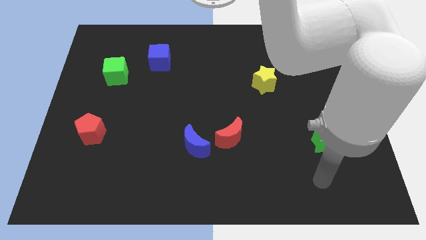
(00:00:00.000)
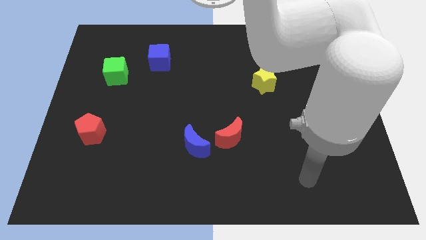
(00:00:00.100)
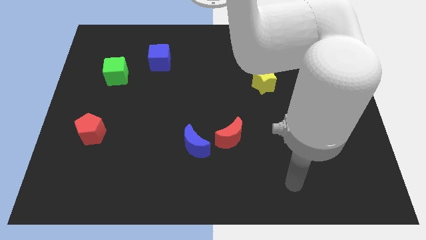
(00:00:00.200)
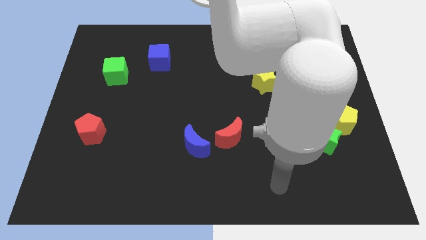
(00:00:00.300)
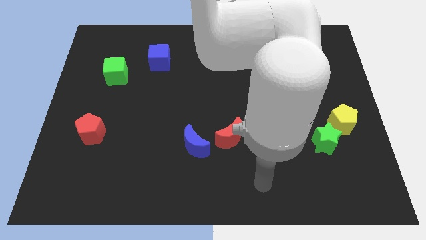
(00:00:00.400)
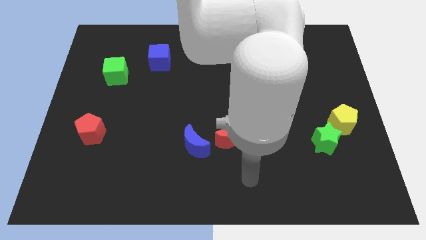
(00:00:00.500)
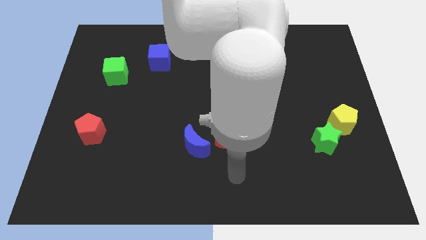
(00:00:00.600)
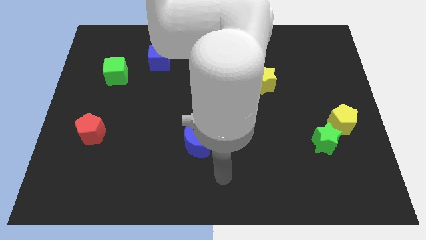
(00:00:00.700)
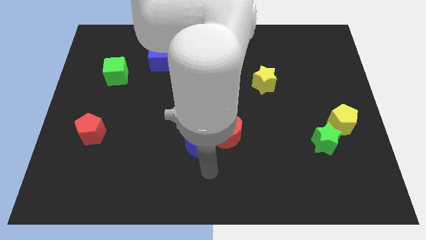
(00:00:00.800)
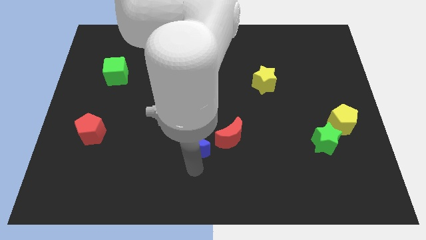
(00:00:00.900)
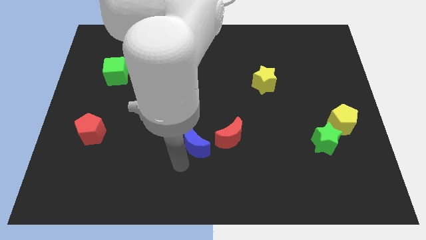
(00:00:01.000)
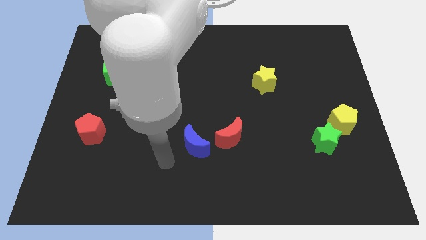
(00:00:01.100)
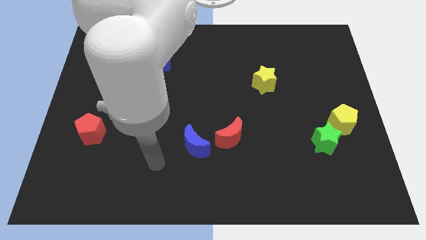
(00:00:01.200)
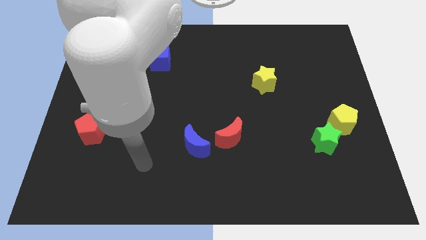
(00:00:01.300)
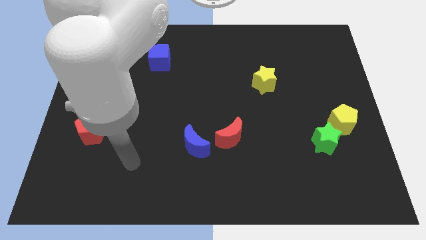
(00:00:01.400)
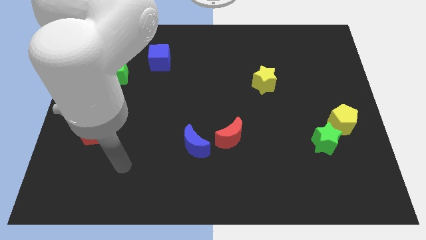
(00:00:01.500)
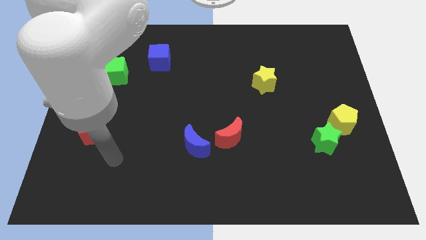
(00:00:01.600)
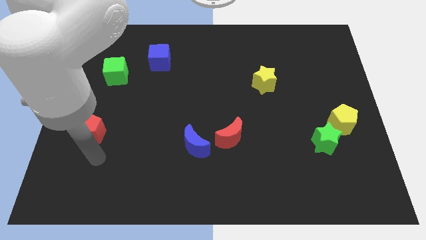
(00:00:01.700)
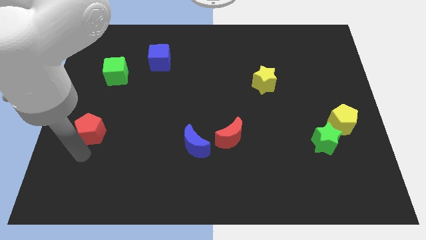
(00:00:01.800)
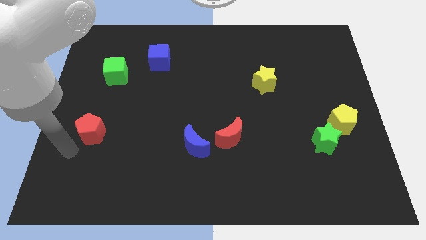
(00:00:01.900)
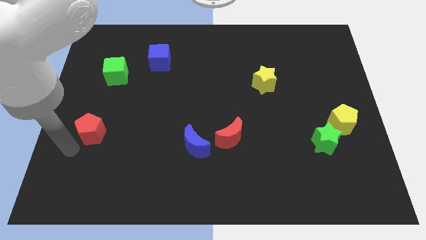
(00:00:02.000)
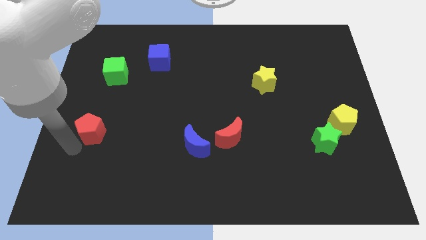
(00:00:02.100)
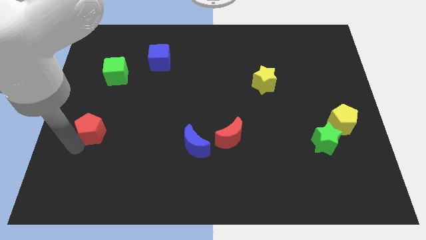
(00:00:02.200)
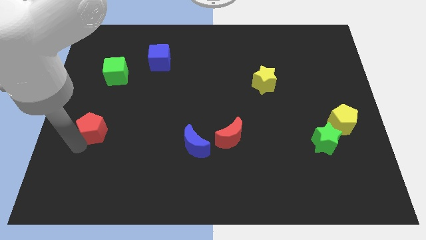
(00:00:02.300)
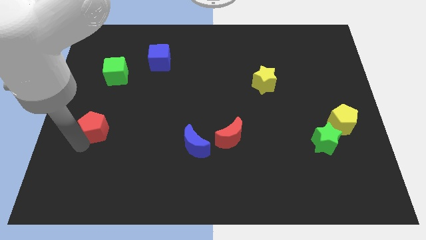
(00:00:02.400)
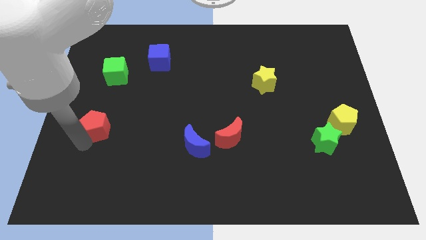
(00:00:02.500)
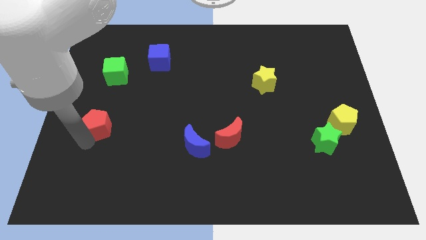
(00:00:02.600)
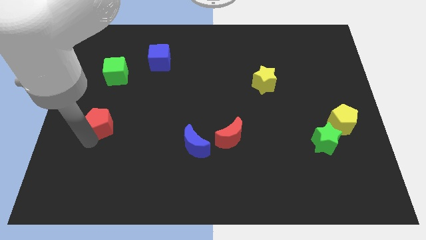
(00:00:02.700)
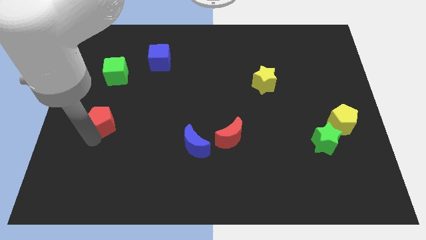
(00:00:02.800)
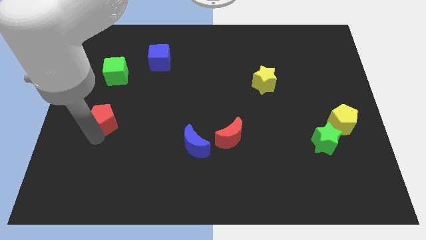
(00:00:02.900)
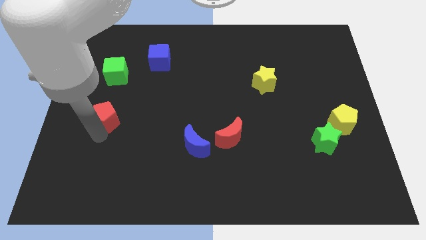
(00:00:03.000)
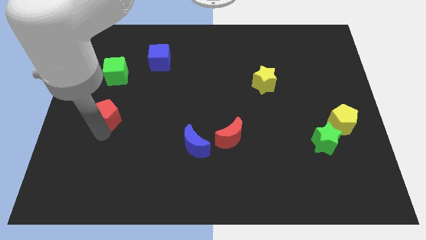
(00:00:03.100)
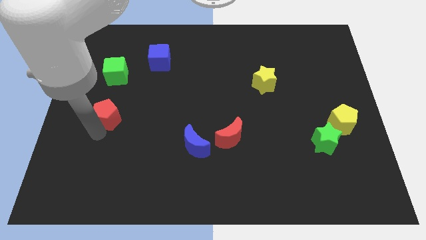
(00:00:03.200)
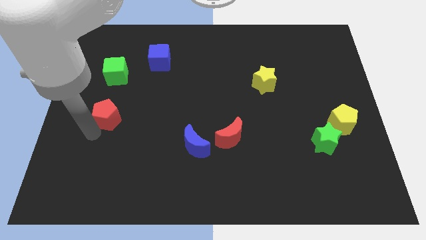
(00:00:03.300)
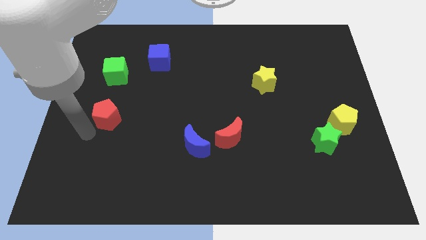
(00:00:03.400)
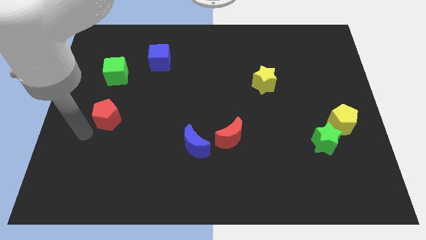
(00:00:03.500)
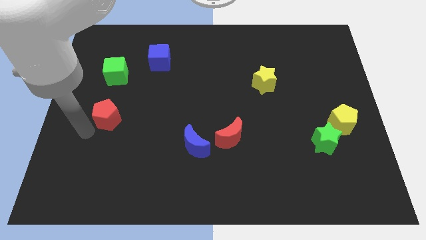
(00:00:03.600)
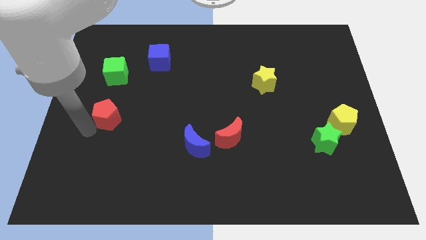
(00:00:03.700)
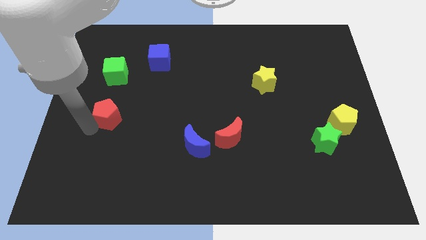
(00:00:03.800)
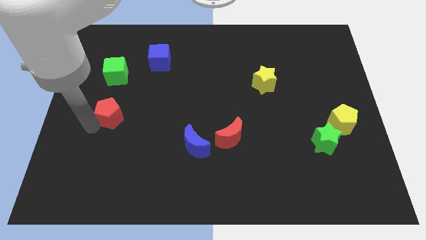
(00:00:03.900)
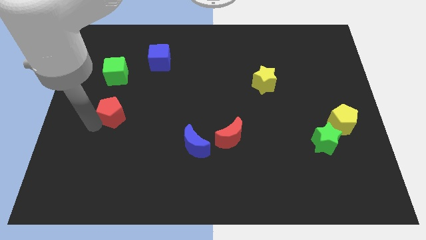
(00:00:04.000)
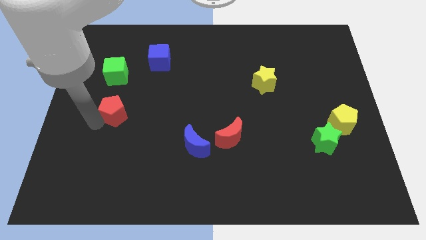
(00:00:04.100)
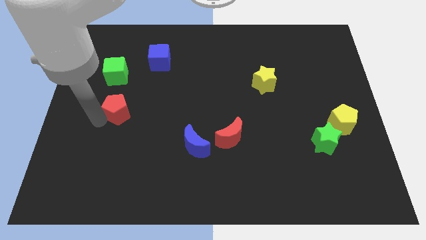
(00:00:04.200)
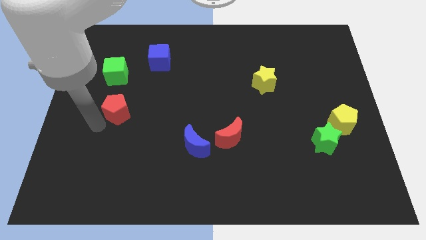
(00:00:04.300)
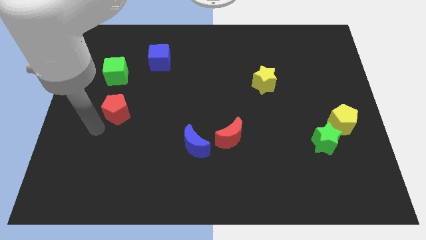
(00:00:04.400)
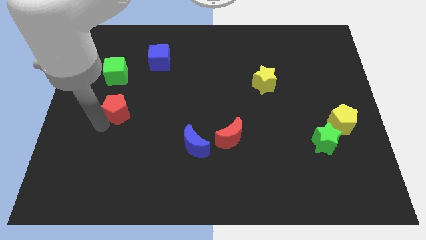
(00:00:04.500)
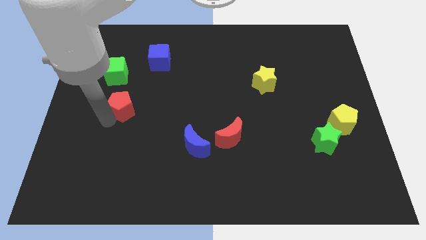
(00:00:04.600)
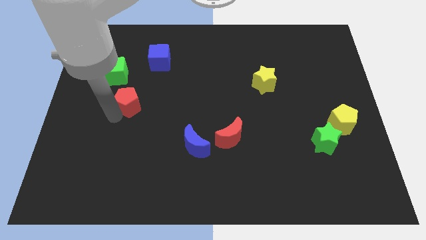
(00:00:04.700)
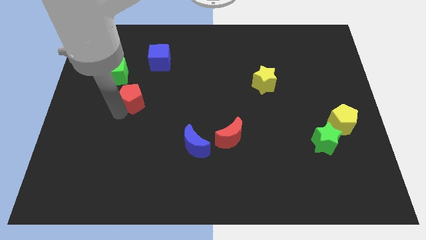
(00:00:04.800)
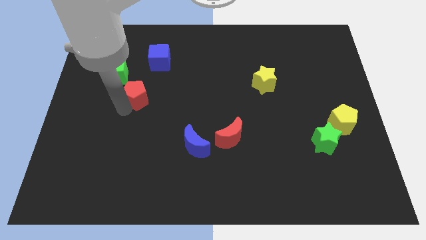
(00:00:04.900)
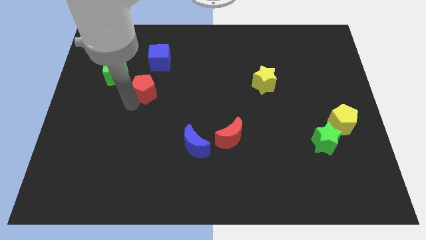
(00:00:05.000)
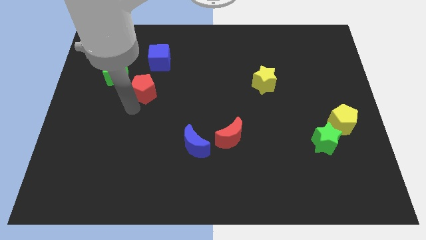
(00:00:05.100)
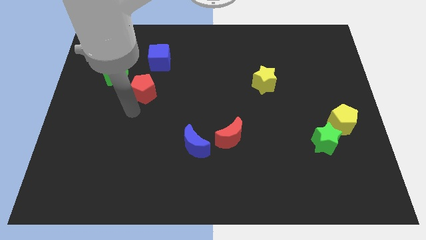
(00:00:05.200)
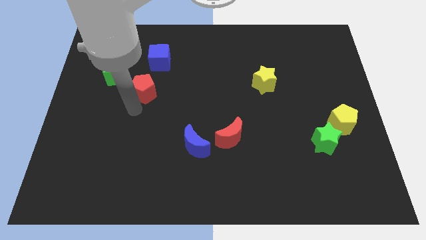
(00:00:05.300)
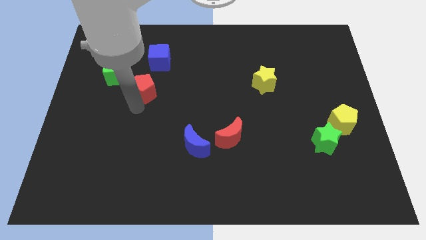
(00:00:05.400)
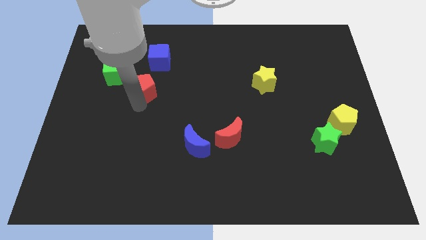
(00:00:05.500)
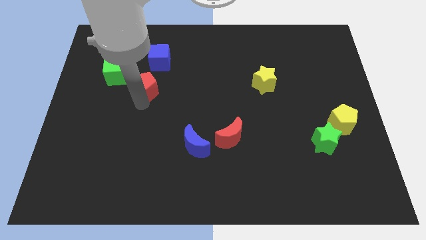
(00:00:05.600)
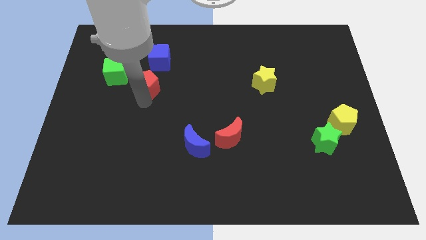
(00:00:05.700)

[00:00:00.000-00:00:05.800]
push the red pentagon to the right of the green cube

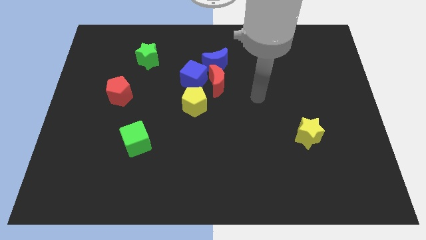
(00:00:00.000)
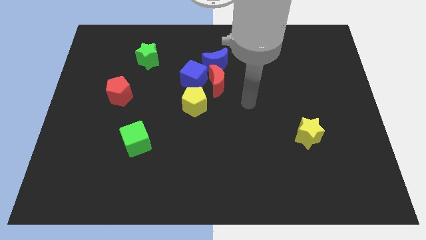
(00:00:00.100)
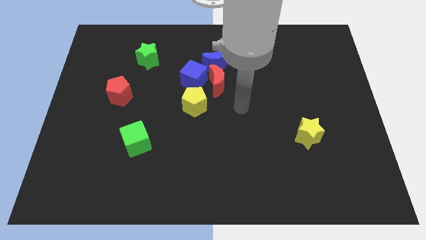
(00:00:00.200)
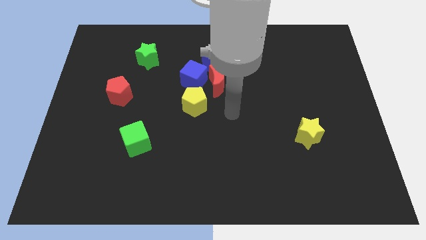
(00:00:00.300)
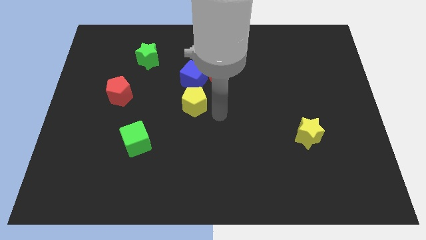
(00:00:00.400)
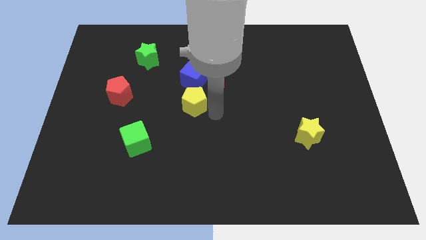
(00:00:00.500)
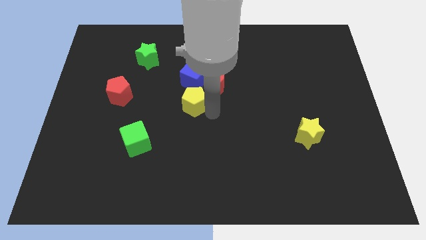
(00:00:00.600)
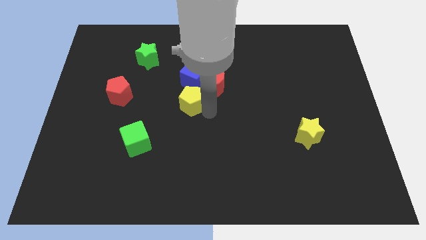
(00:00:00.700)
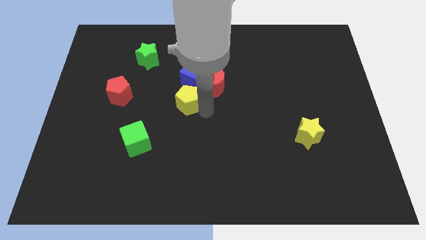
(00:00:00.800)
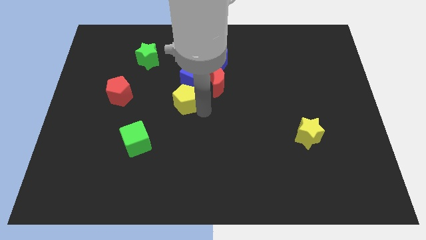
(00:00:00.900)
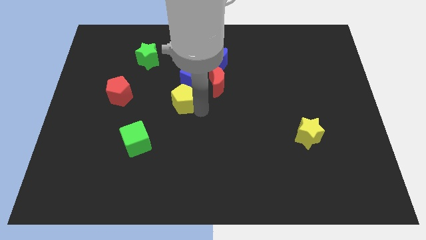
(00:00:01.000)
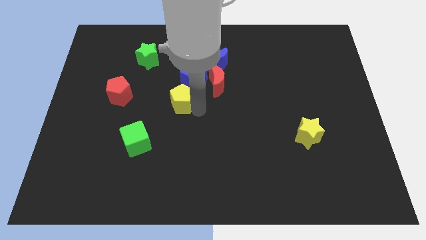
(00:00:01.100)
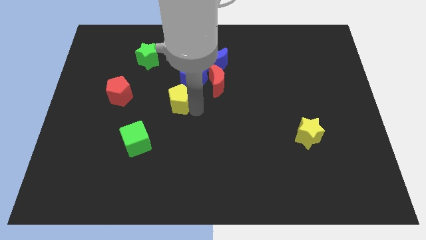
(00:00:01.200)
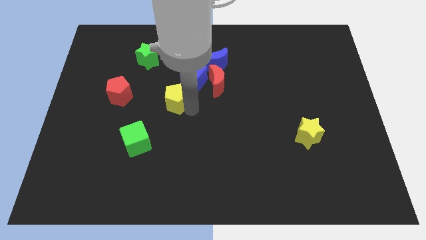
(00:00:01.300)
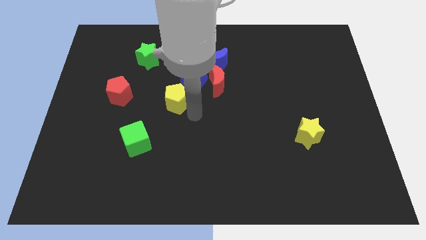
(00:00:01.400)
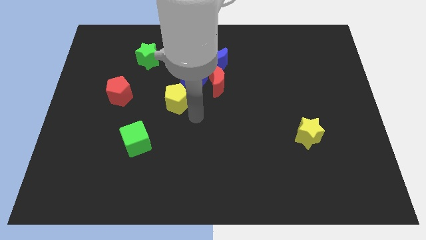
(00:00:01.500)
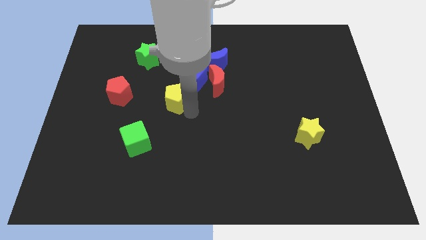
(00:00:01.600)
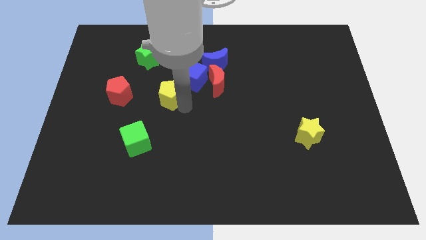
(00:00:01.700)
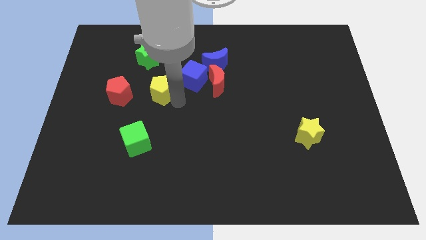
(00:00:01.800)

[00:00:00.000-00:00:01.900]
put the yellow pentagon to the left of the blue cube

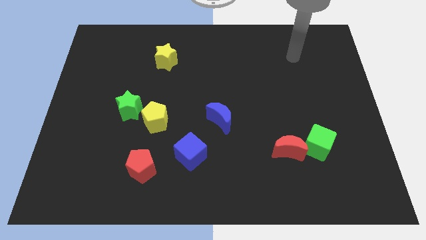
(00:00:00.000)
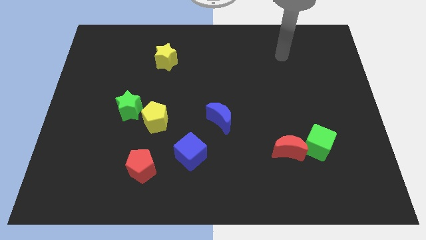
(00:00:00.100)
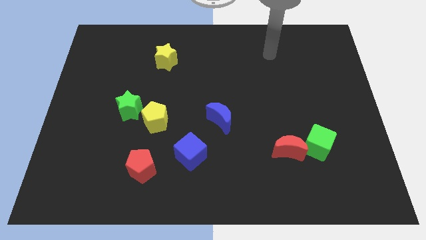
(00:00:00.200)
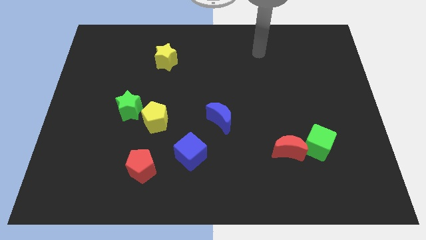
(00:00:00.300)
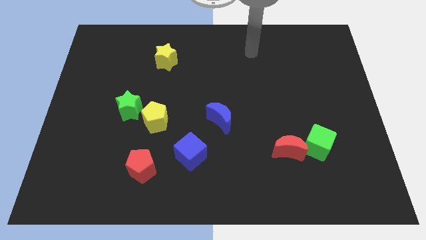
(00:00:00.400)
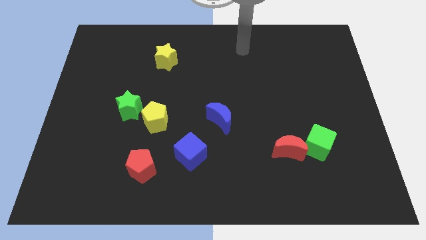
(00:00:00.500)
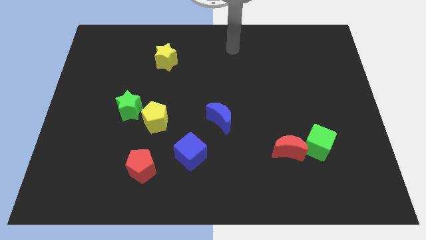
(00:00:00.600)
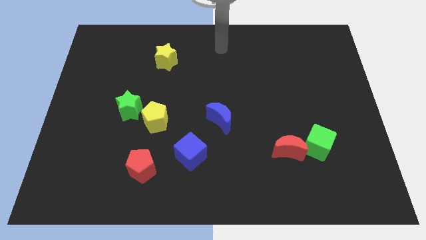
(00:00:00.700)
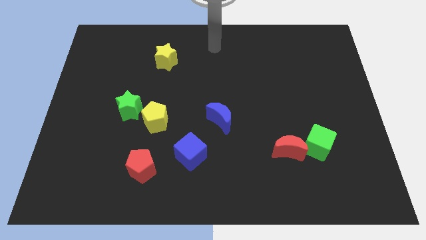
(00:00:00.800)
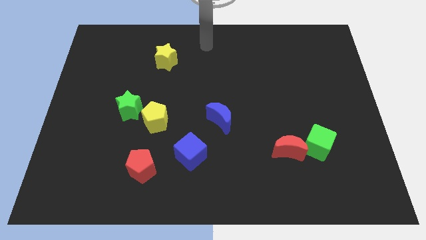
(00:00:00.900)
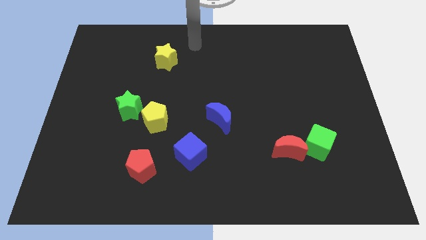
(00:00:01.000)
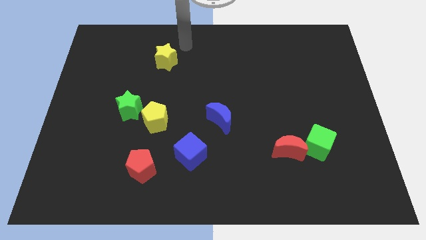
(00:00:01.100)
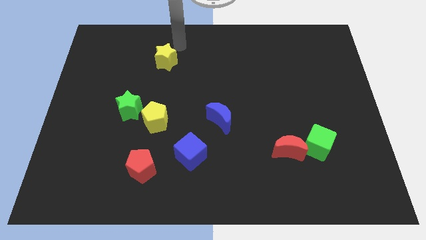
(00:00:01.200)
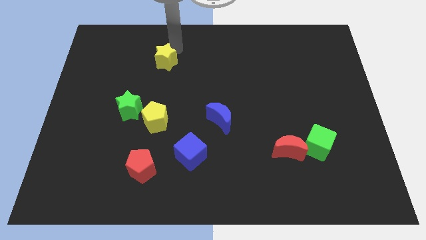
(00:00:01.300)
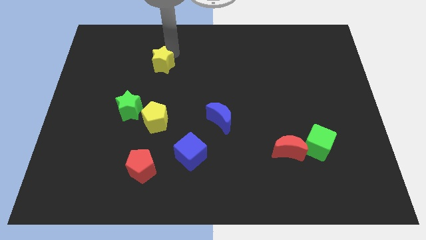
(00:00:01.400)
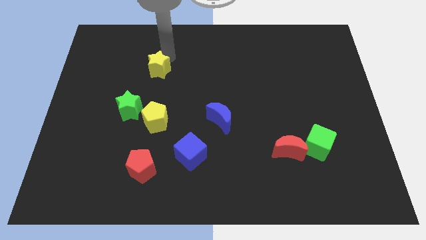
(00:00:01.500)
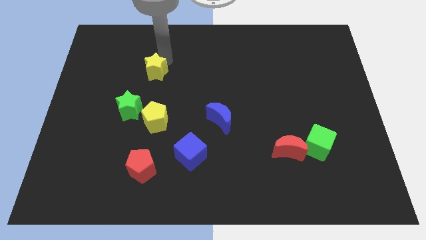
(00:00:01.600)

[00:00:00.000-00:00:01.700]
slide the yellow star to the top side of the yellow pentagon
